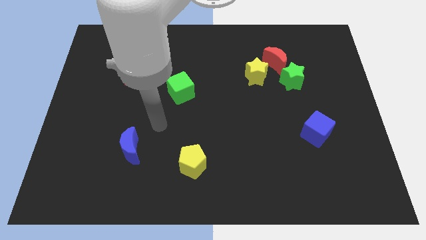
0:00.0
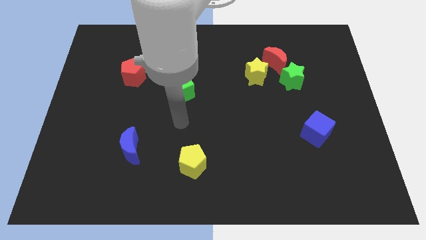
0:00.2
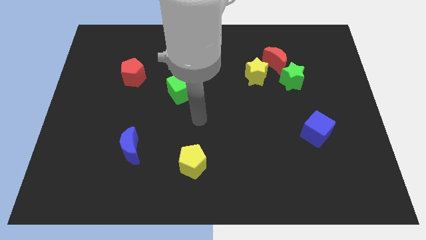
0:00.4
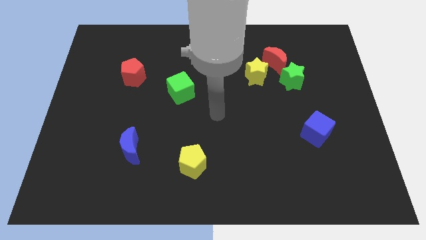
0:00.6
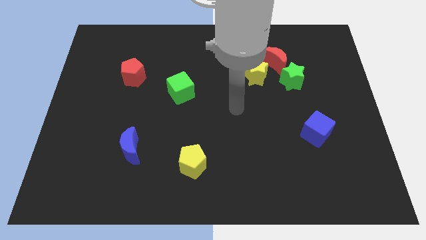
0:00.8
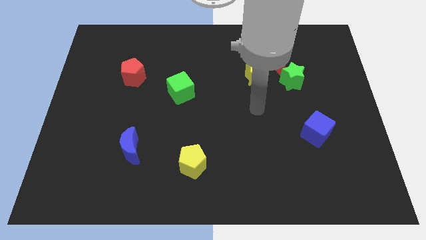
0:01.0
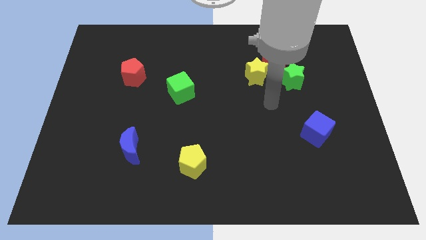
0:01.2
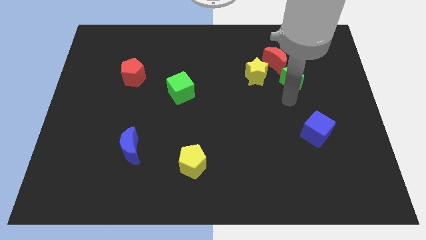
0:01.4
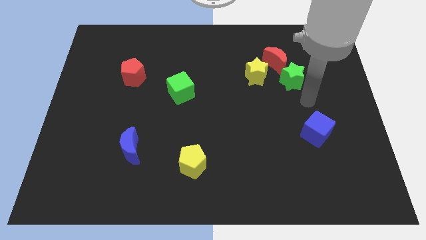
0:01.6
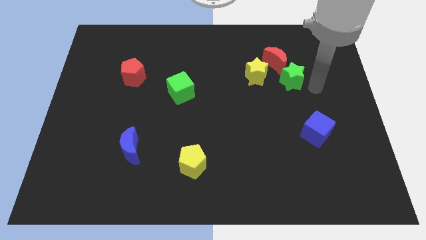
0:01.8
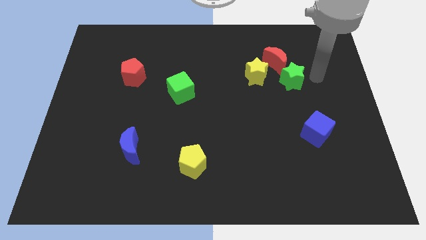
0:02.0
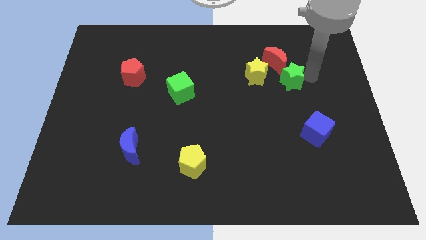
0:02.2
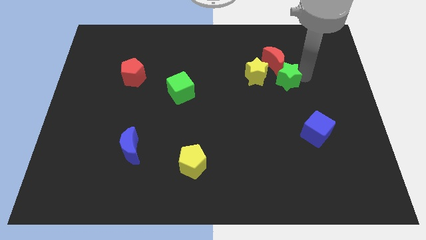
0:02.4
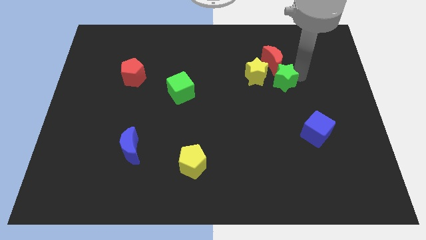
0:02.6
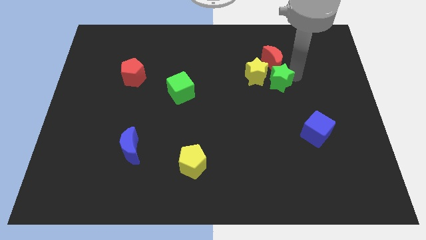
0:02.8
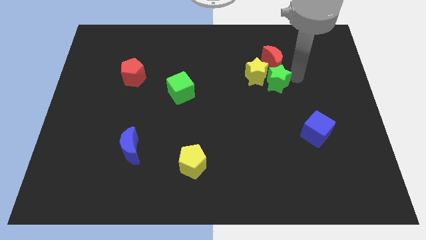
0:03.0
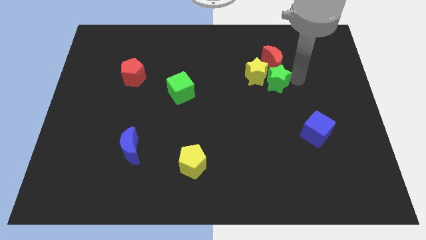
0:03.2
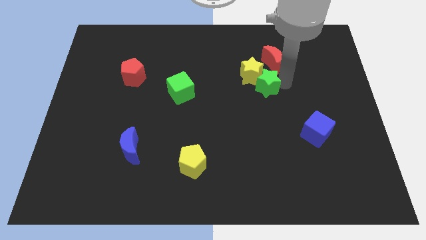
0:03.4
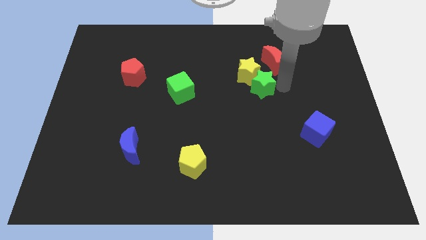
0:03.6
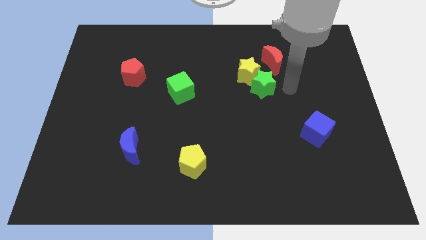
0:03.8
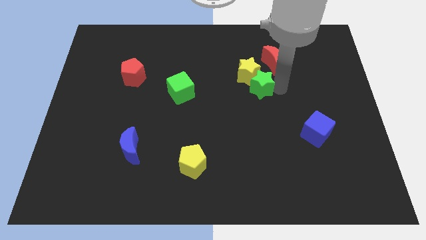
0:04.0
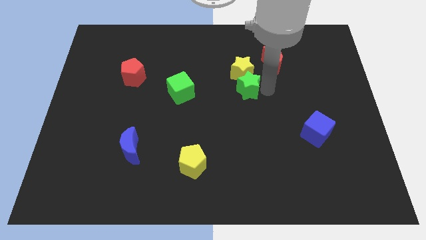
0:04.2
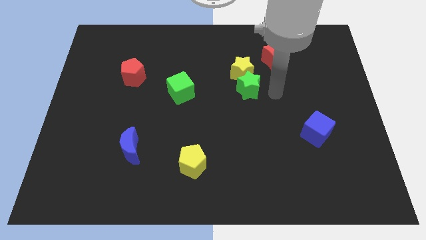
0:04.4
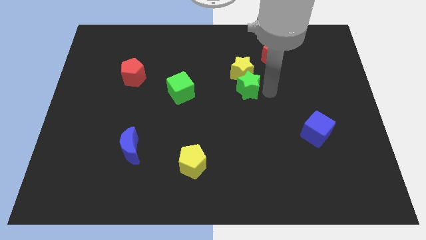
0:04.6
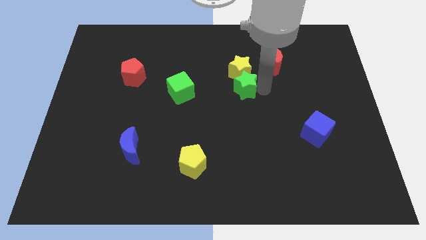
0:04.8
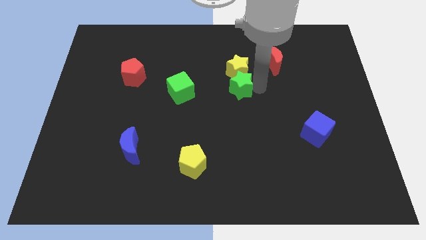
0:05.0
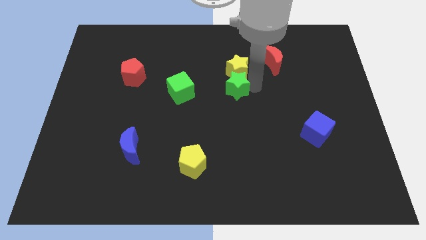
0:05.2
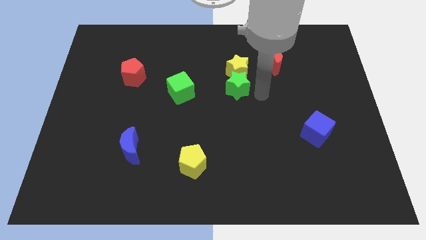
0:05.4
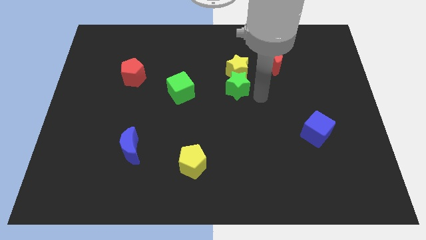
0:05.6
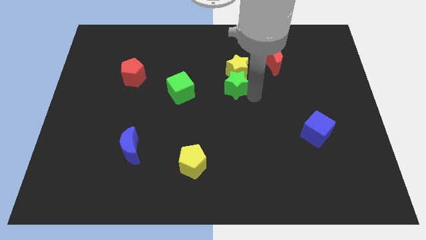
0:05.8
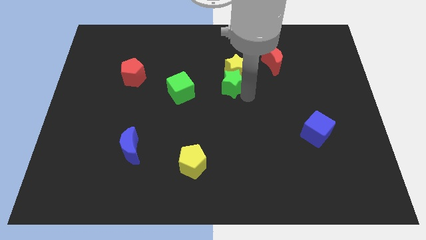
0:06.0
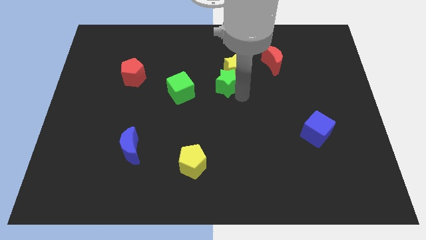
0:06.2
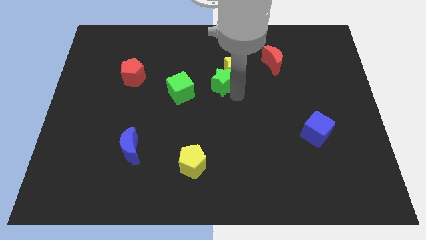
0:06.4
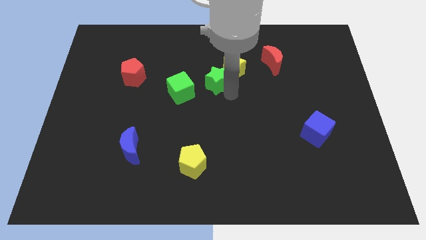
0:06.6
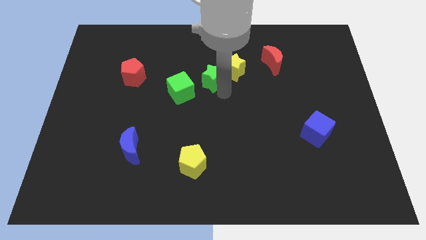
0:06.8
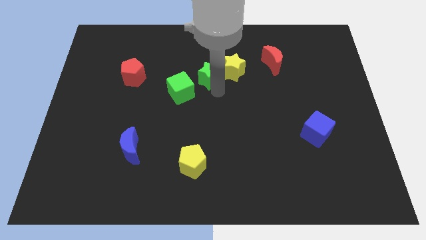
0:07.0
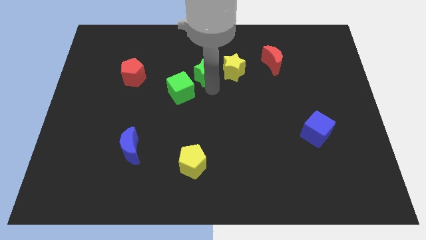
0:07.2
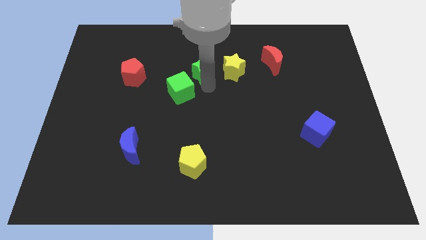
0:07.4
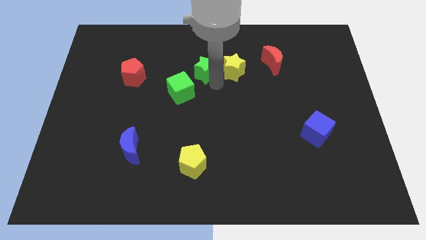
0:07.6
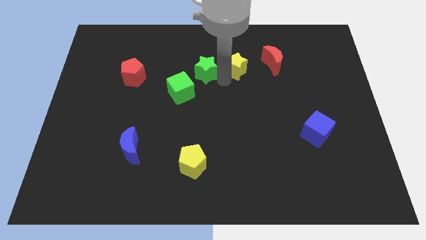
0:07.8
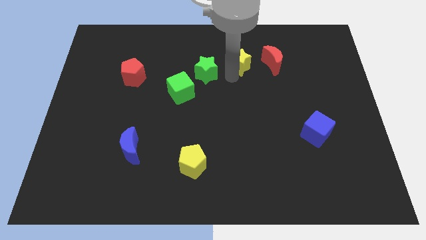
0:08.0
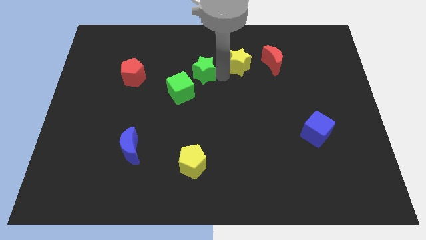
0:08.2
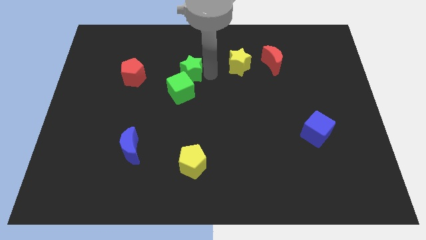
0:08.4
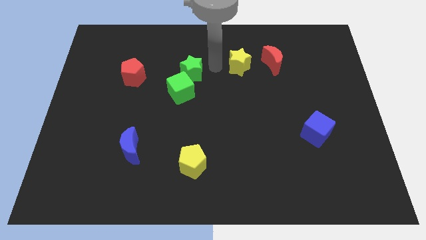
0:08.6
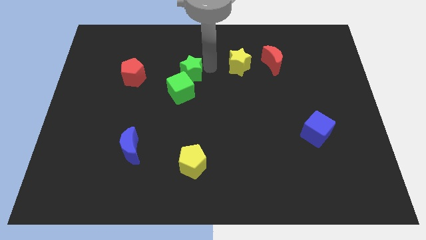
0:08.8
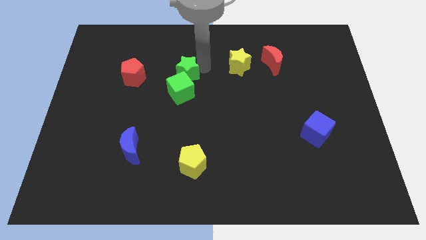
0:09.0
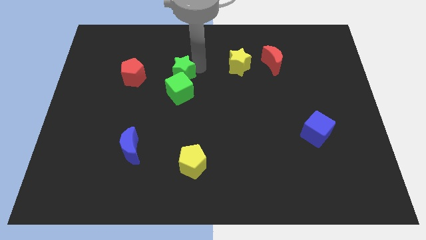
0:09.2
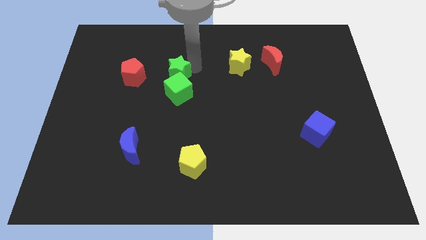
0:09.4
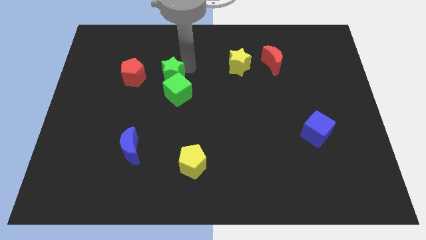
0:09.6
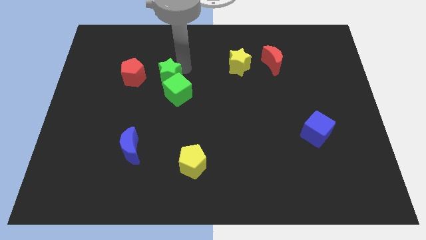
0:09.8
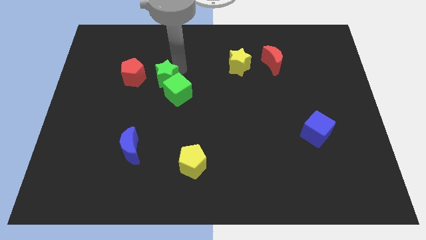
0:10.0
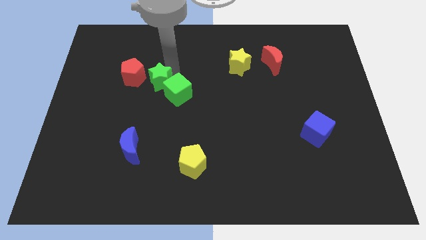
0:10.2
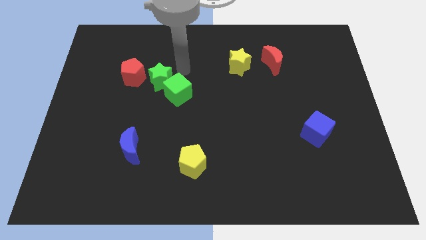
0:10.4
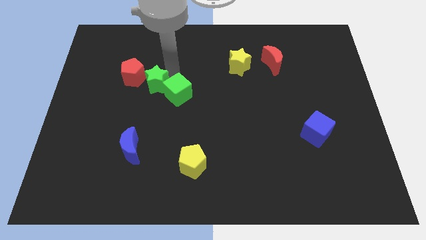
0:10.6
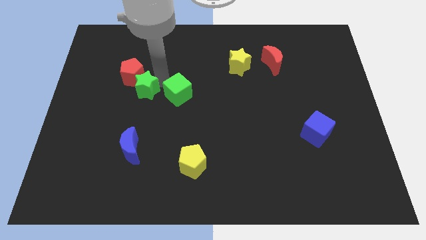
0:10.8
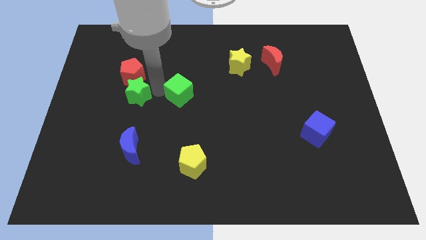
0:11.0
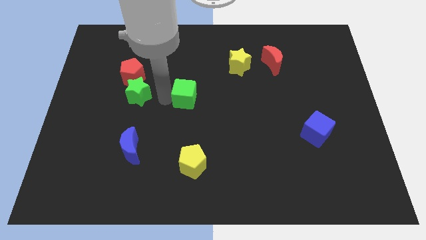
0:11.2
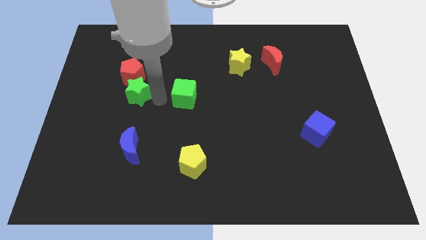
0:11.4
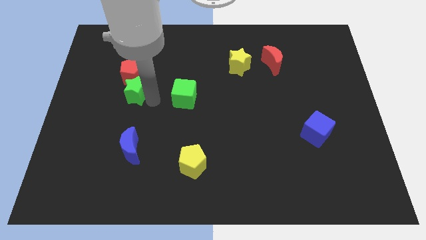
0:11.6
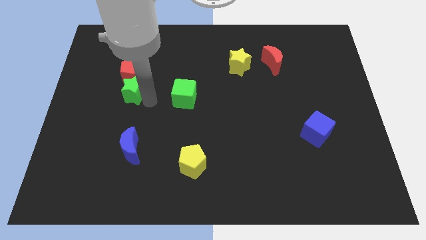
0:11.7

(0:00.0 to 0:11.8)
put the green star diagonally down and to the left of the red pentagon

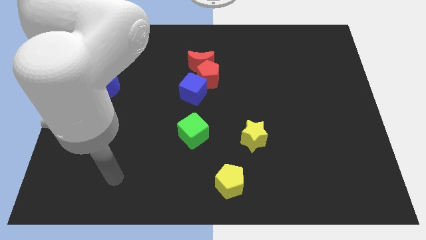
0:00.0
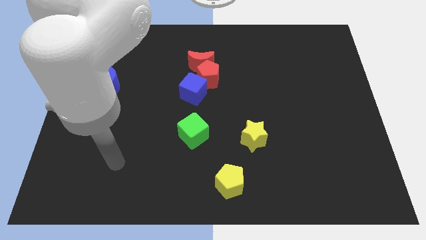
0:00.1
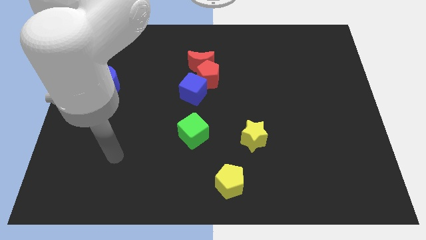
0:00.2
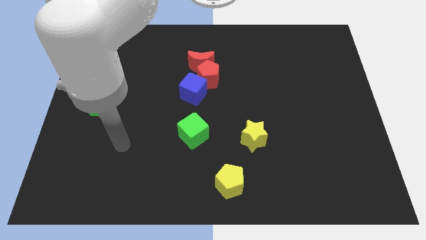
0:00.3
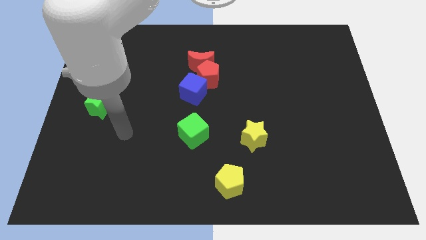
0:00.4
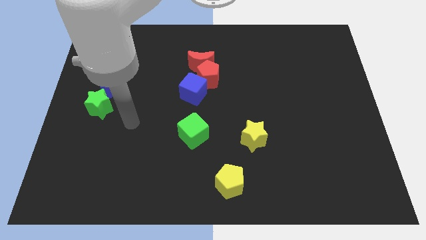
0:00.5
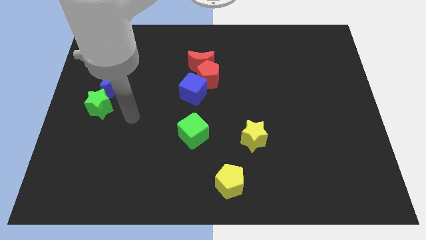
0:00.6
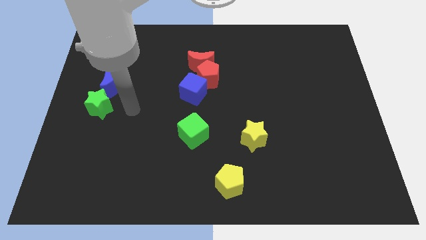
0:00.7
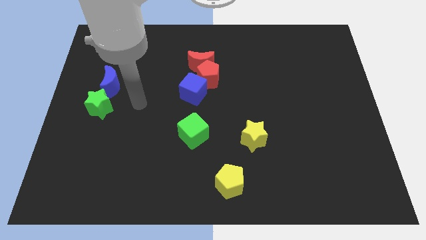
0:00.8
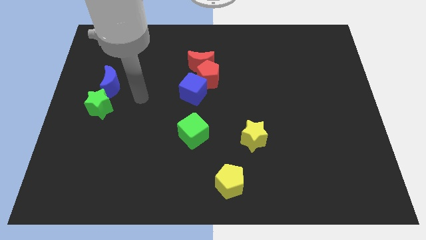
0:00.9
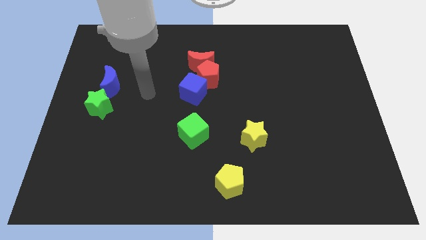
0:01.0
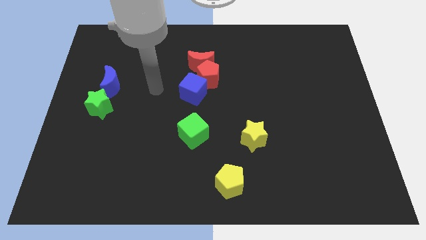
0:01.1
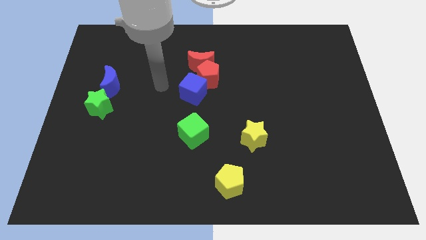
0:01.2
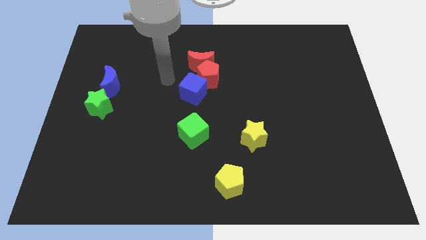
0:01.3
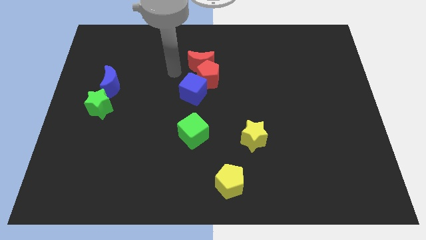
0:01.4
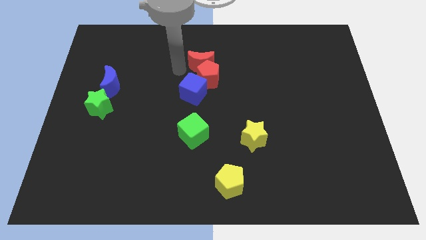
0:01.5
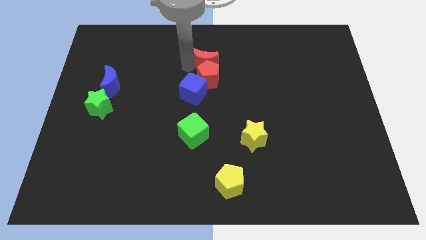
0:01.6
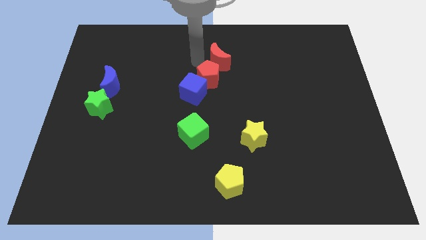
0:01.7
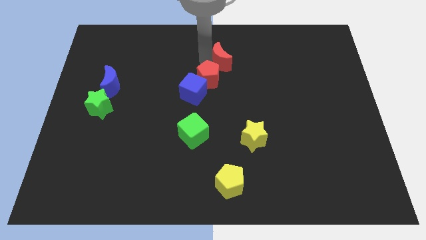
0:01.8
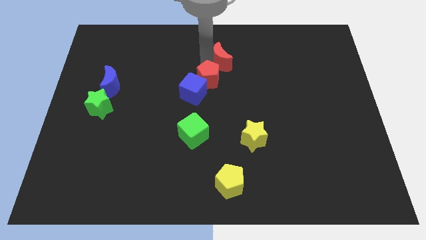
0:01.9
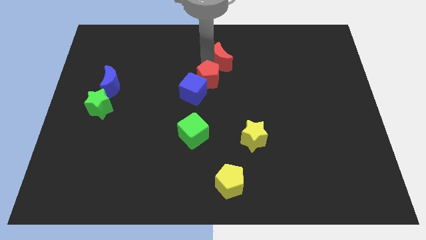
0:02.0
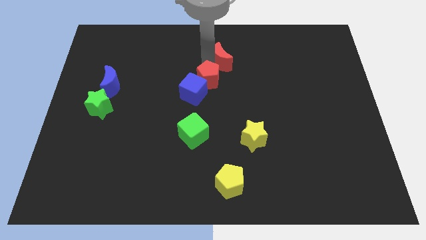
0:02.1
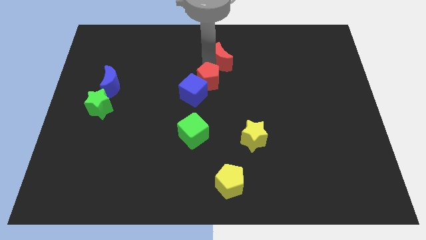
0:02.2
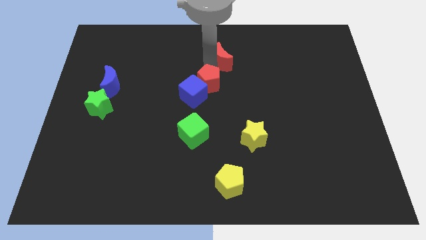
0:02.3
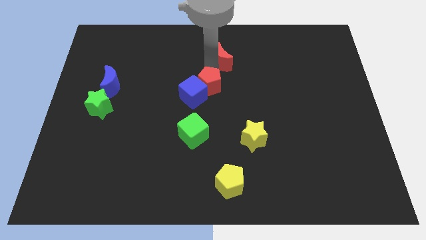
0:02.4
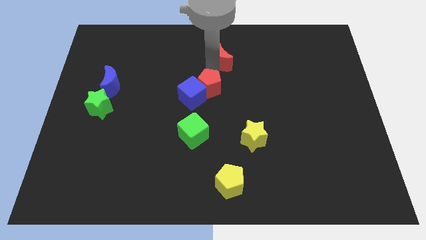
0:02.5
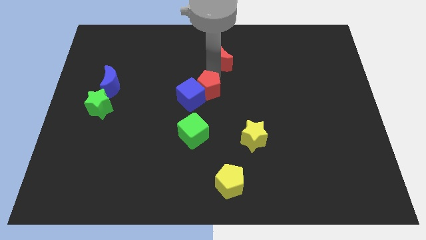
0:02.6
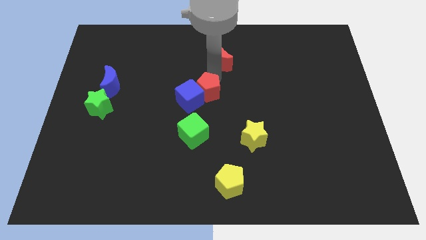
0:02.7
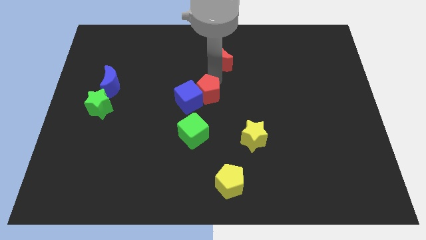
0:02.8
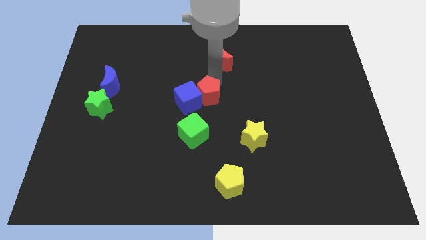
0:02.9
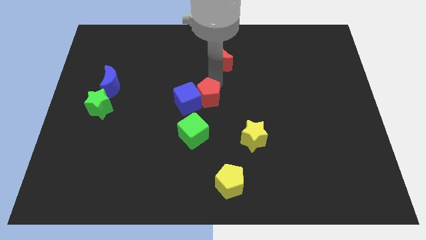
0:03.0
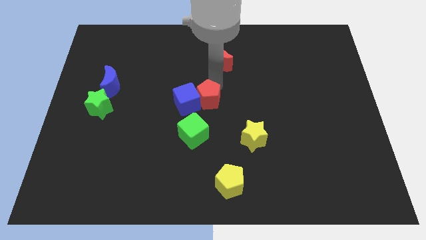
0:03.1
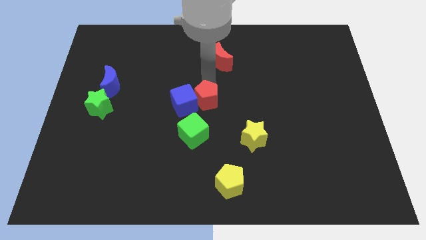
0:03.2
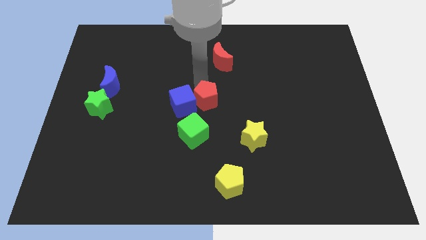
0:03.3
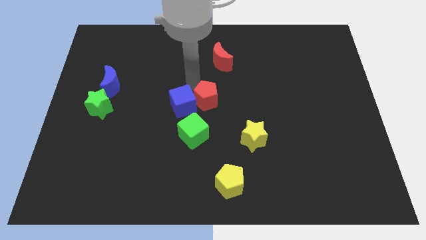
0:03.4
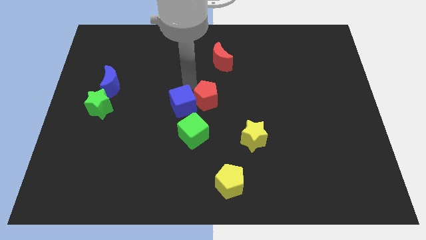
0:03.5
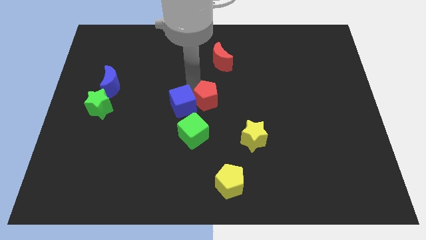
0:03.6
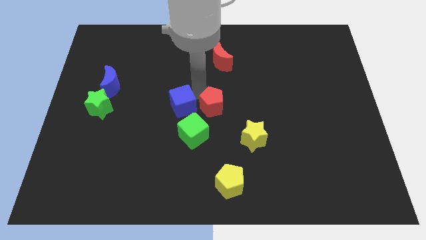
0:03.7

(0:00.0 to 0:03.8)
move the red pentagon diagonally up and to the left of the yellow star
